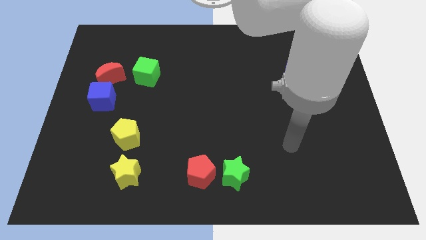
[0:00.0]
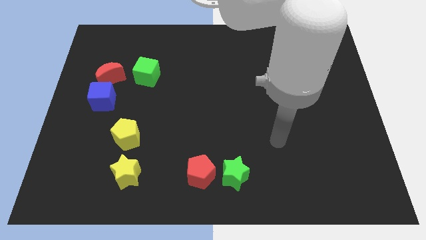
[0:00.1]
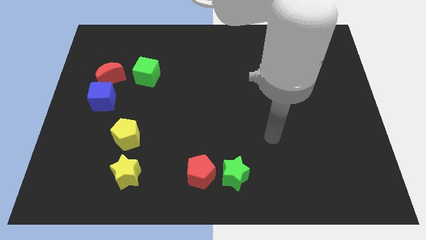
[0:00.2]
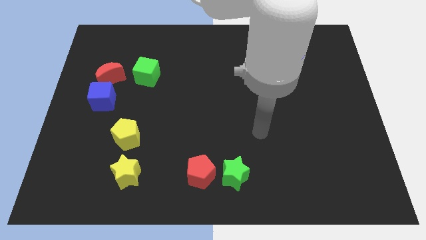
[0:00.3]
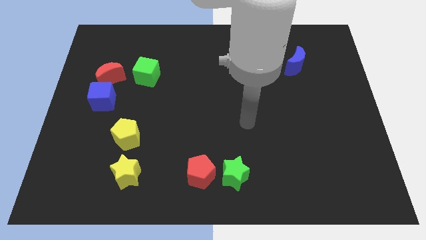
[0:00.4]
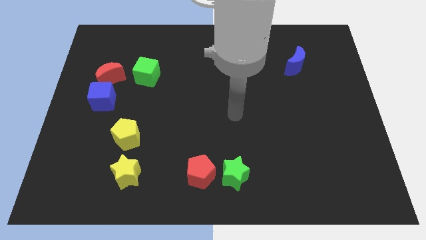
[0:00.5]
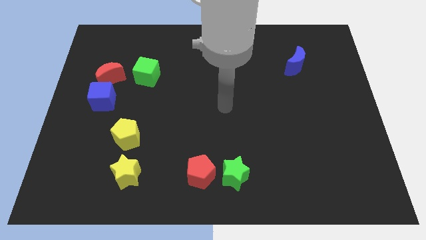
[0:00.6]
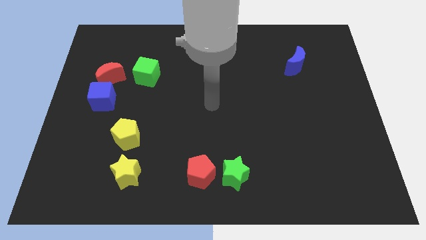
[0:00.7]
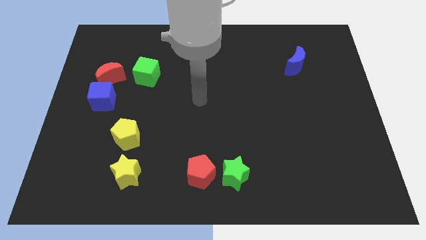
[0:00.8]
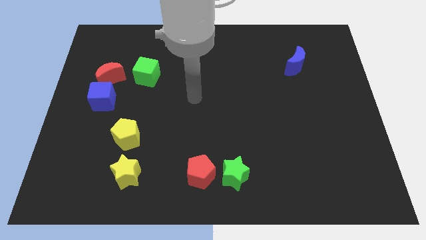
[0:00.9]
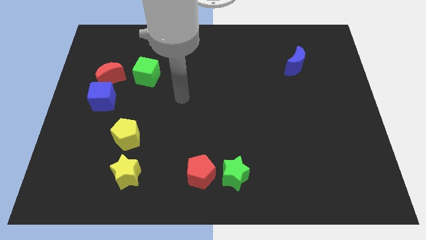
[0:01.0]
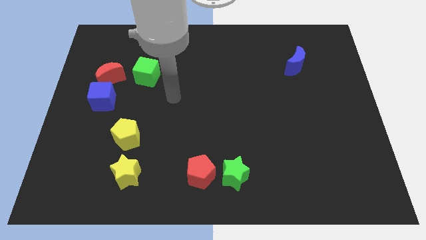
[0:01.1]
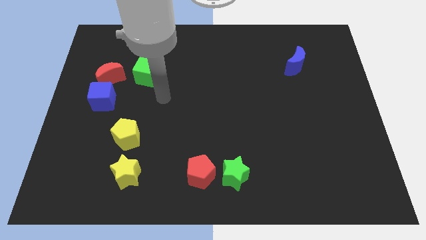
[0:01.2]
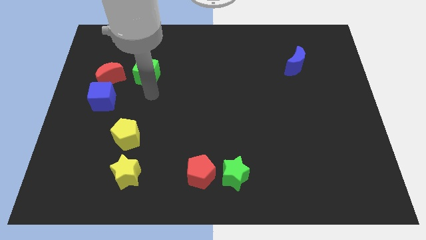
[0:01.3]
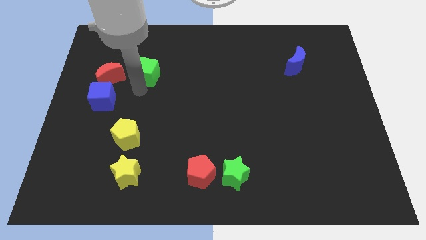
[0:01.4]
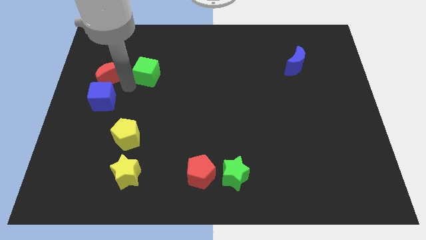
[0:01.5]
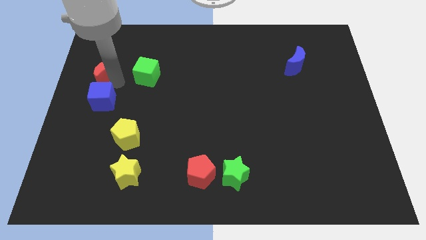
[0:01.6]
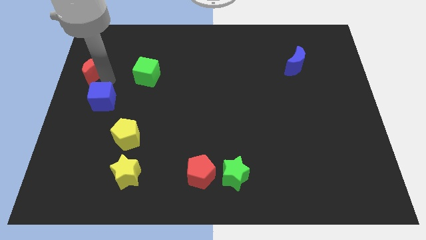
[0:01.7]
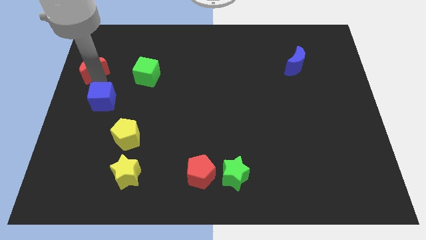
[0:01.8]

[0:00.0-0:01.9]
pull the blue cube apart from the red moon

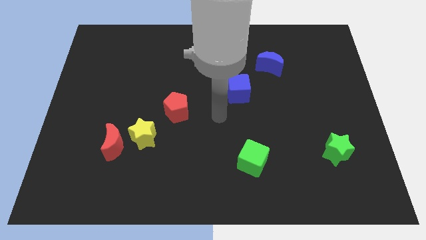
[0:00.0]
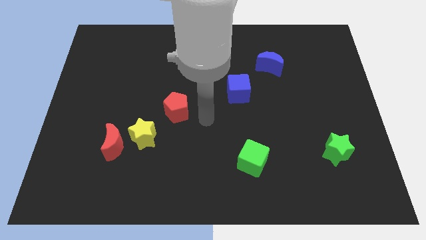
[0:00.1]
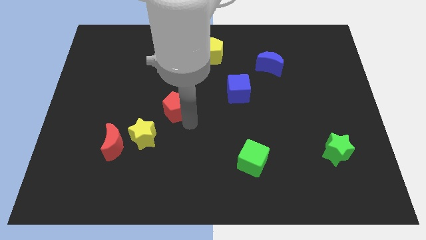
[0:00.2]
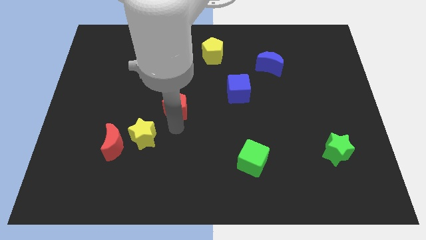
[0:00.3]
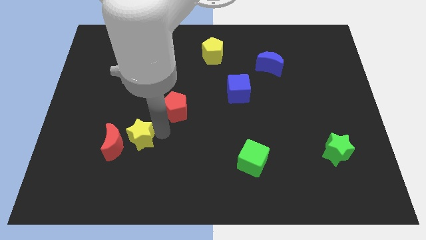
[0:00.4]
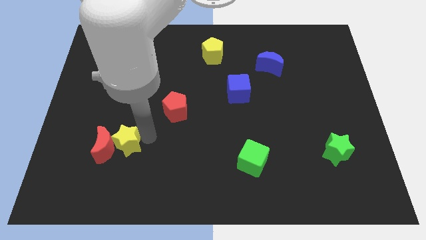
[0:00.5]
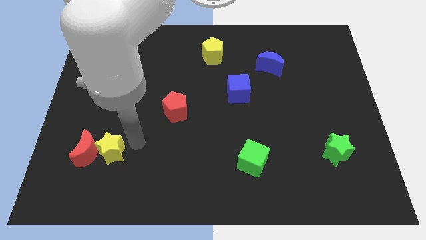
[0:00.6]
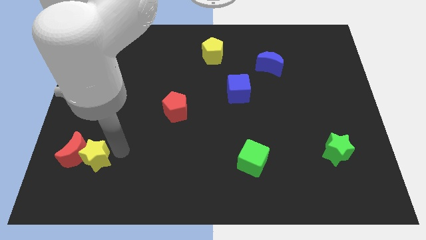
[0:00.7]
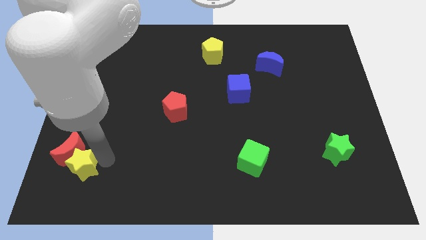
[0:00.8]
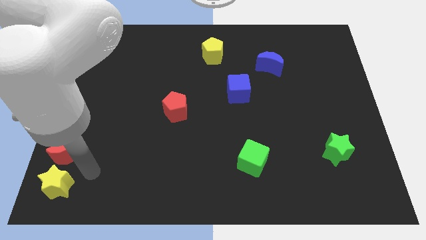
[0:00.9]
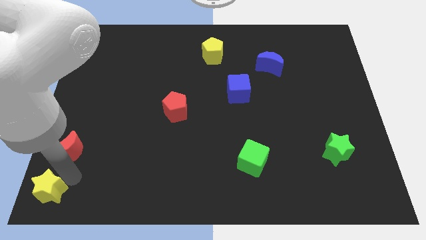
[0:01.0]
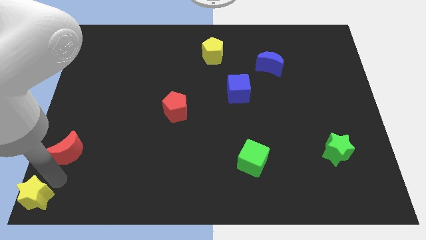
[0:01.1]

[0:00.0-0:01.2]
separate the red moon from the yellow star

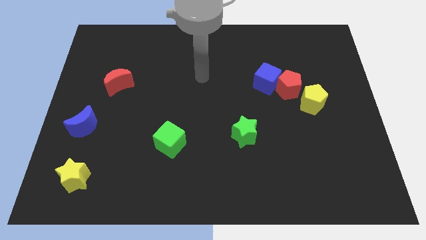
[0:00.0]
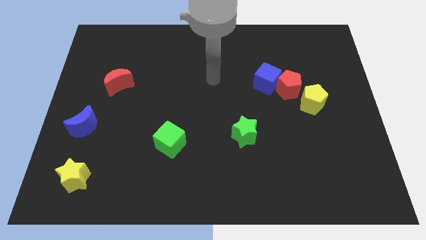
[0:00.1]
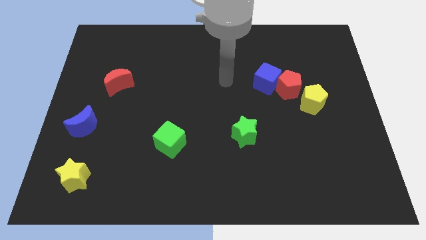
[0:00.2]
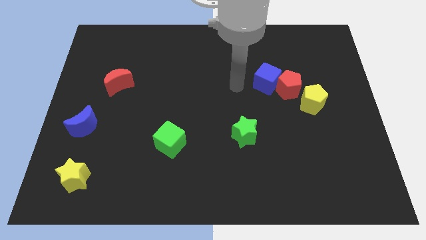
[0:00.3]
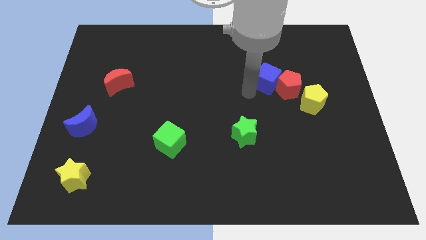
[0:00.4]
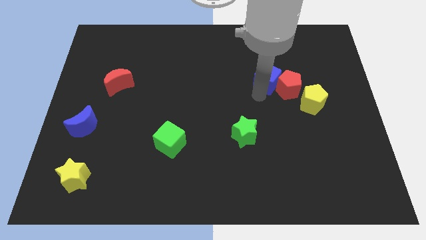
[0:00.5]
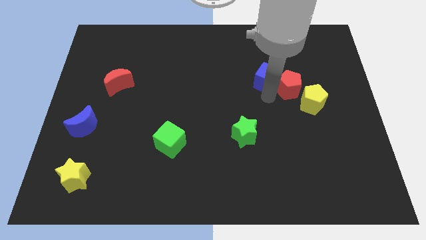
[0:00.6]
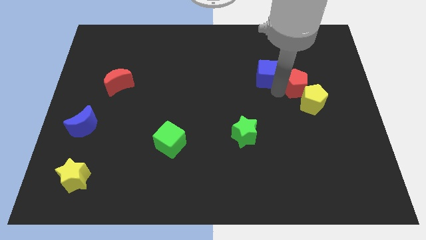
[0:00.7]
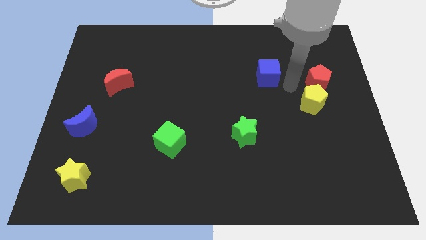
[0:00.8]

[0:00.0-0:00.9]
pull the blue cube apart from the red pentagon

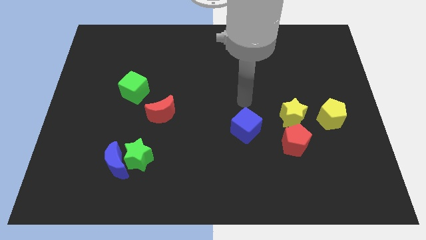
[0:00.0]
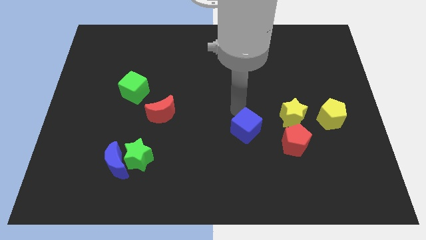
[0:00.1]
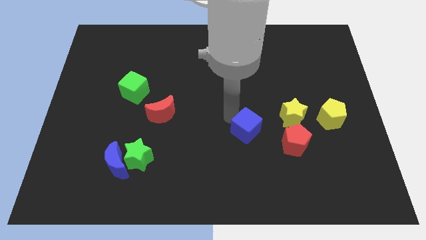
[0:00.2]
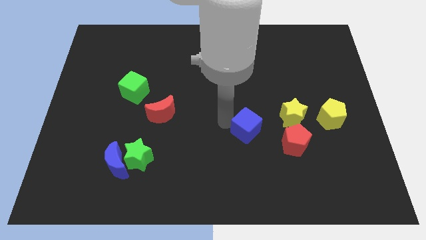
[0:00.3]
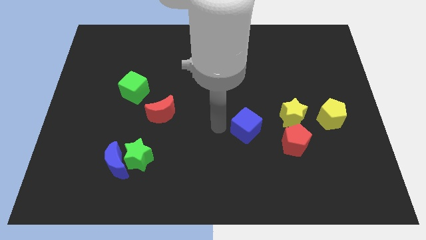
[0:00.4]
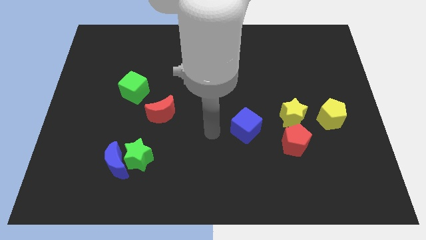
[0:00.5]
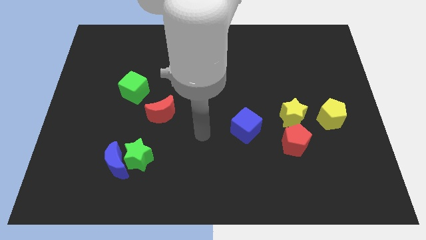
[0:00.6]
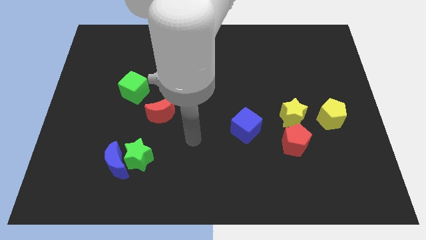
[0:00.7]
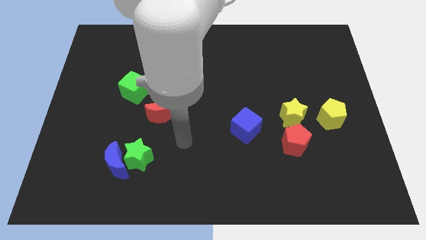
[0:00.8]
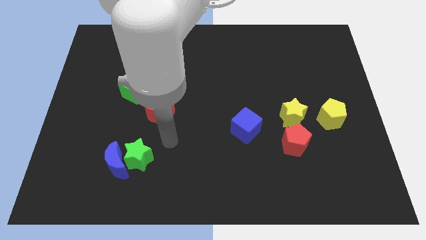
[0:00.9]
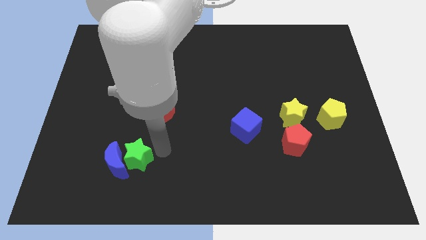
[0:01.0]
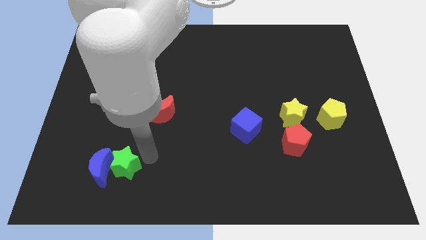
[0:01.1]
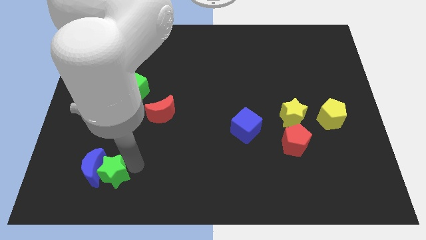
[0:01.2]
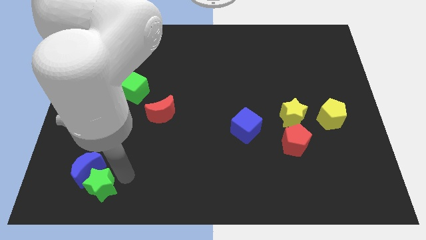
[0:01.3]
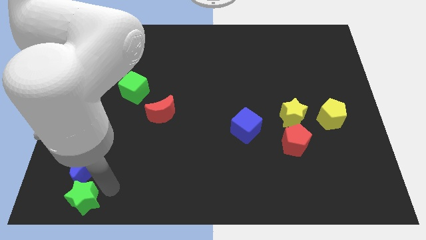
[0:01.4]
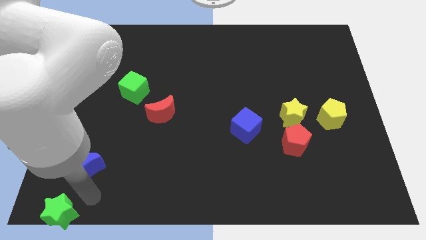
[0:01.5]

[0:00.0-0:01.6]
pull the blue moon apart from the green star

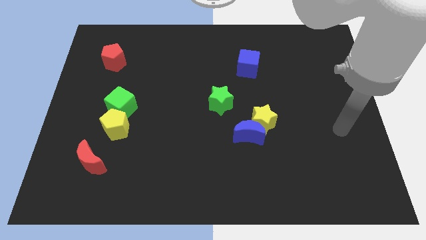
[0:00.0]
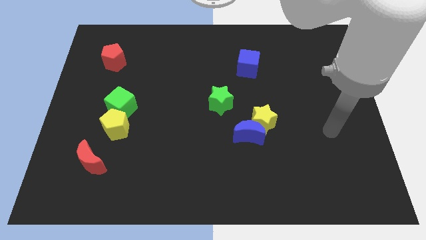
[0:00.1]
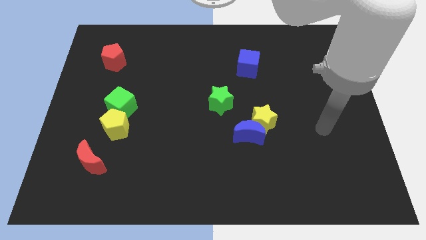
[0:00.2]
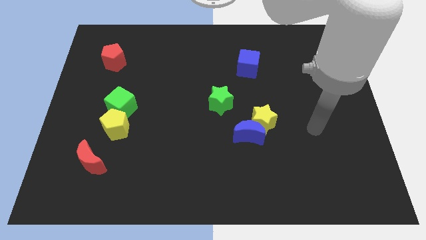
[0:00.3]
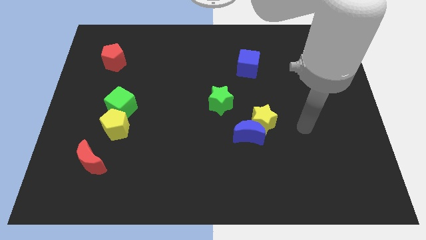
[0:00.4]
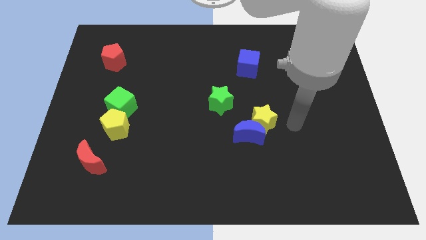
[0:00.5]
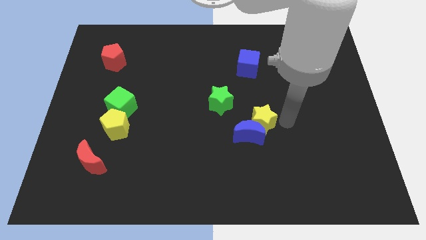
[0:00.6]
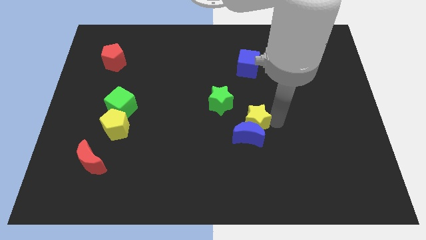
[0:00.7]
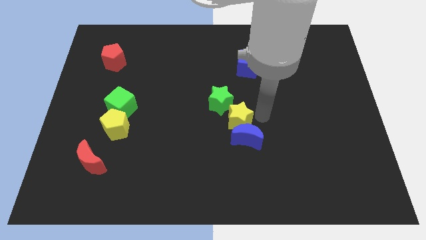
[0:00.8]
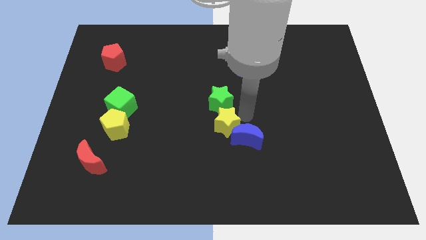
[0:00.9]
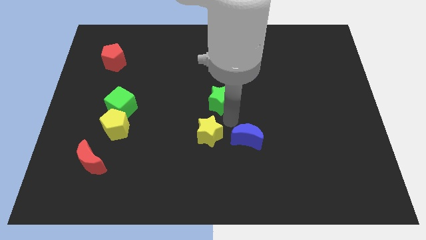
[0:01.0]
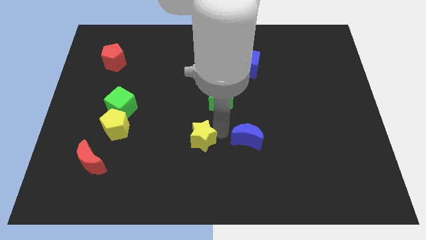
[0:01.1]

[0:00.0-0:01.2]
move the blue moon away from the yellow star

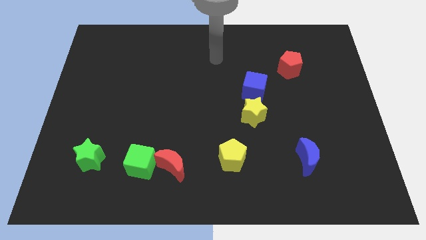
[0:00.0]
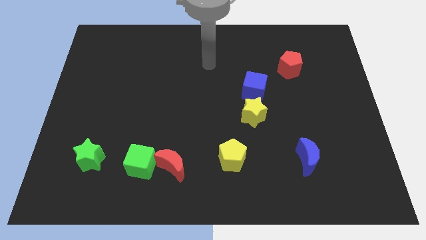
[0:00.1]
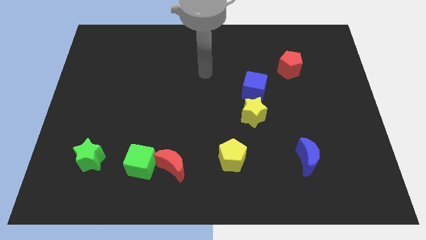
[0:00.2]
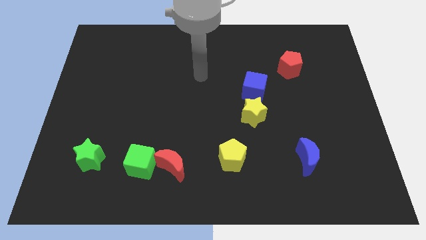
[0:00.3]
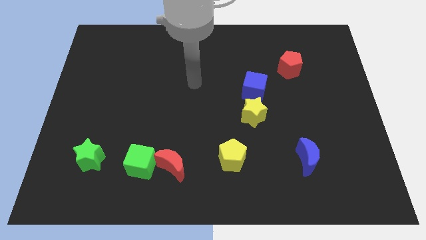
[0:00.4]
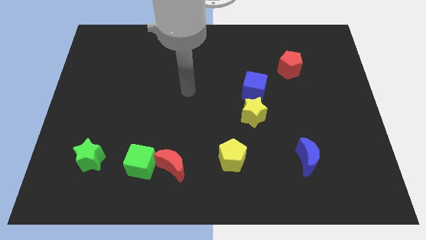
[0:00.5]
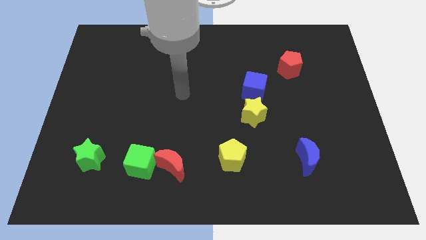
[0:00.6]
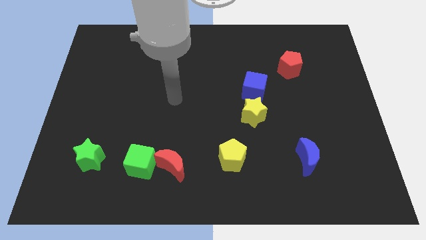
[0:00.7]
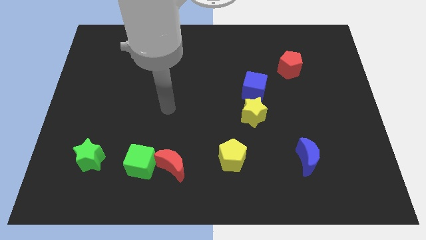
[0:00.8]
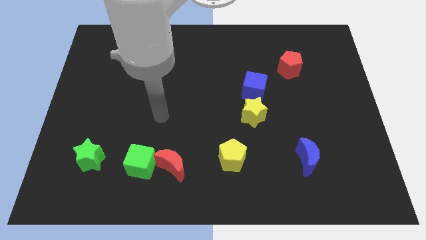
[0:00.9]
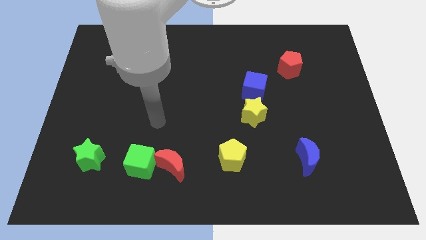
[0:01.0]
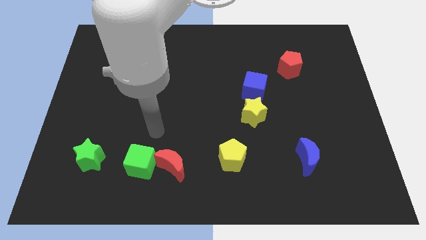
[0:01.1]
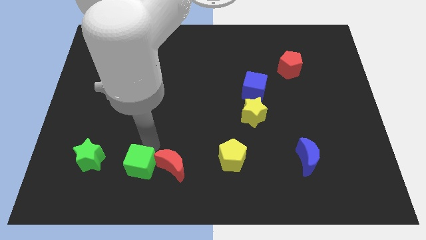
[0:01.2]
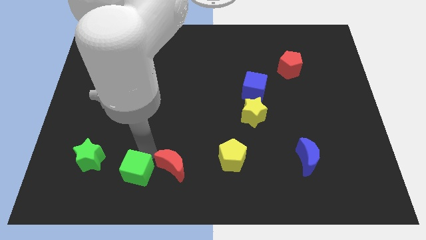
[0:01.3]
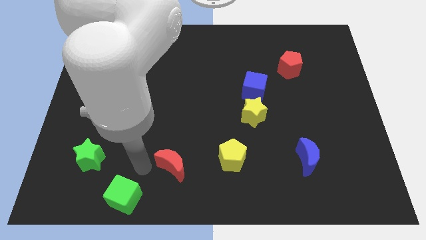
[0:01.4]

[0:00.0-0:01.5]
pull the red moon apart from the green cube

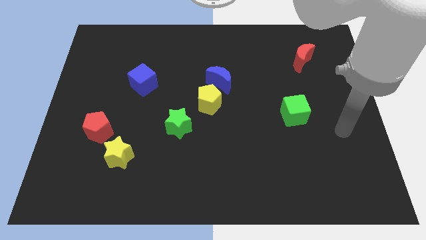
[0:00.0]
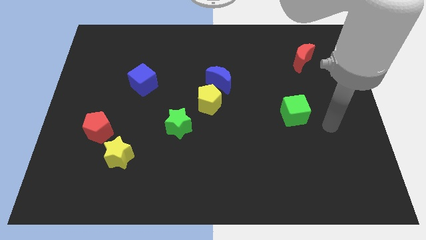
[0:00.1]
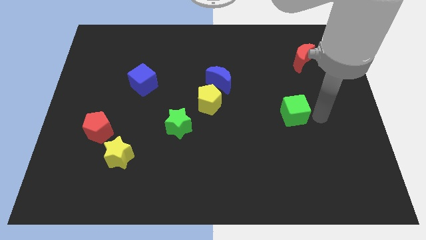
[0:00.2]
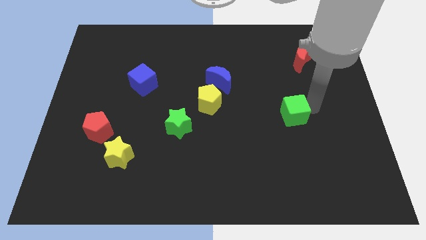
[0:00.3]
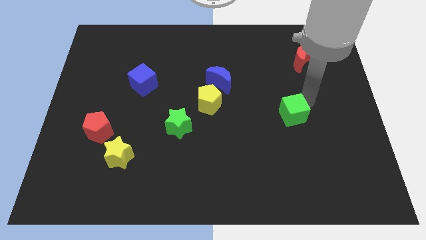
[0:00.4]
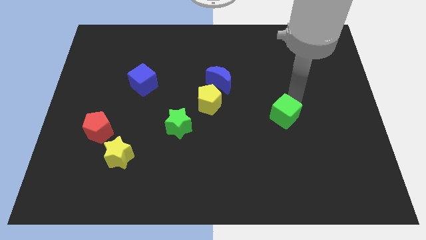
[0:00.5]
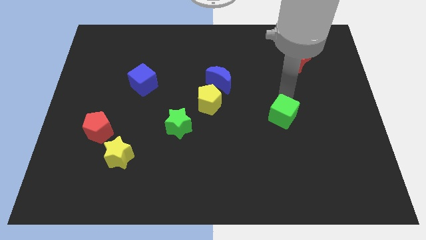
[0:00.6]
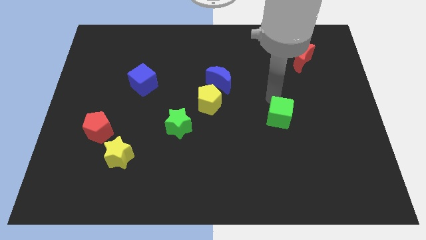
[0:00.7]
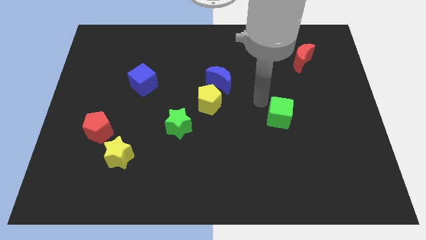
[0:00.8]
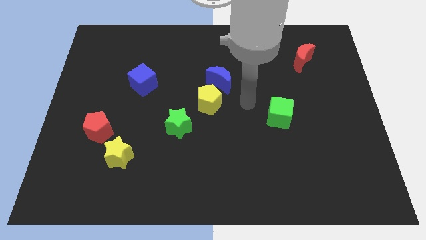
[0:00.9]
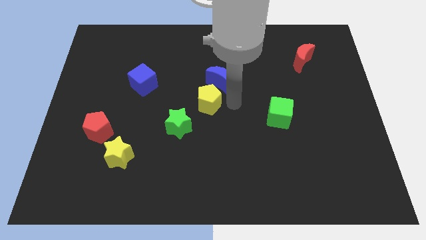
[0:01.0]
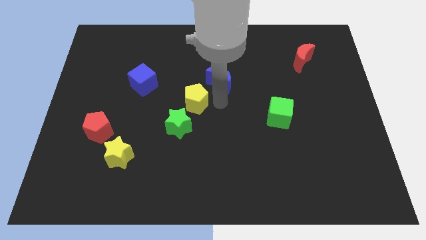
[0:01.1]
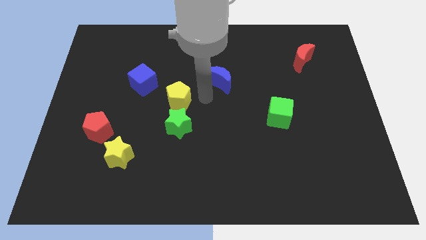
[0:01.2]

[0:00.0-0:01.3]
pull the blue moon apart from the yellow pentagon
